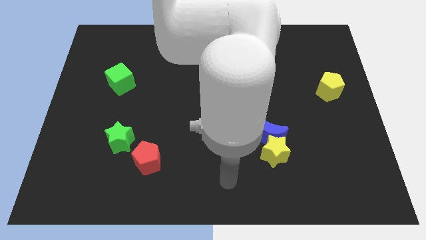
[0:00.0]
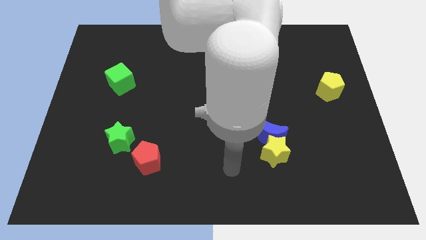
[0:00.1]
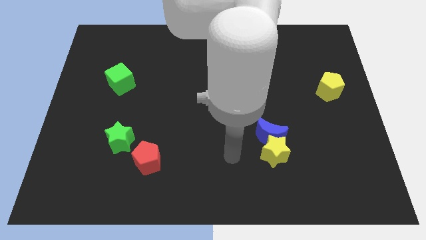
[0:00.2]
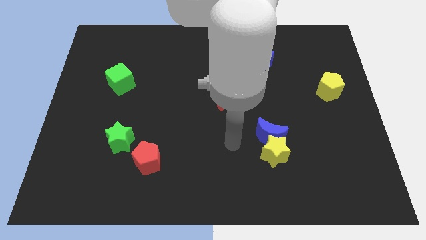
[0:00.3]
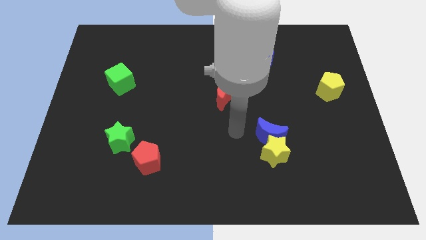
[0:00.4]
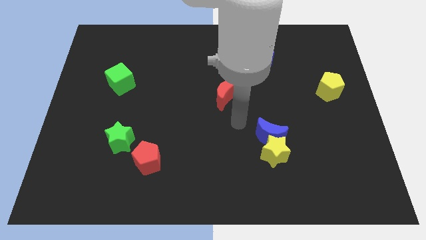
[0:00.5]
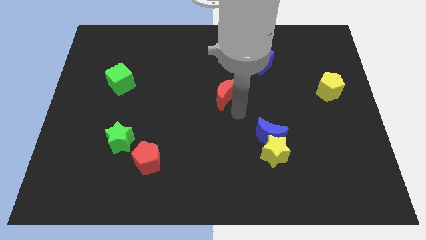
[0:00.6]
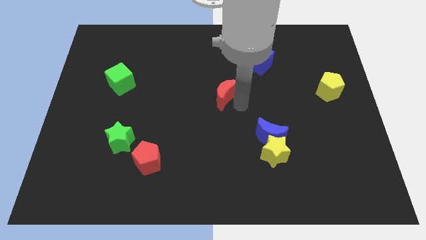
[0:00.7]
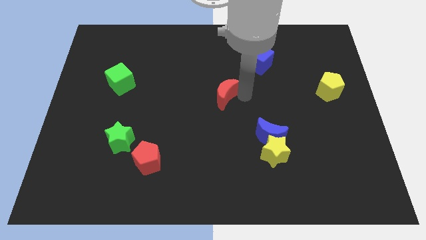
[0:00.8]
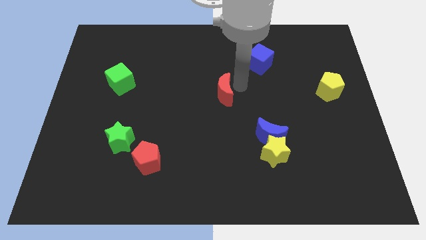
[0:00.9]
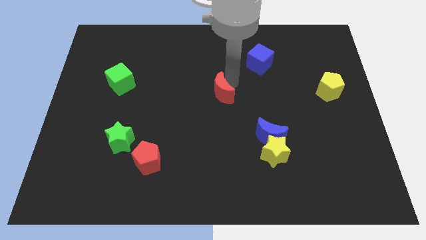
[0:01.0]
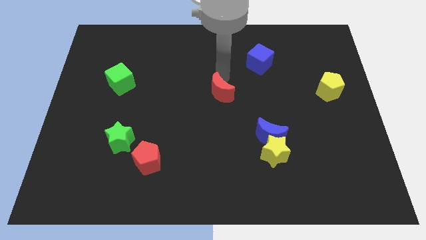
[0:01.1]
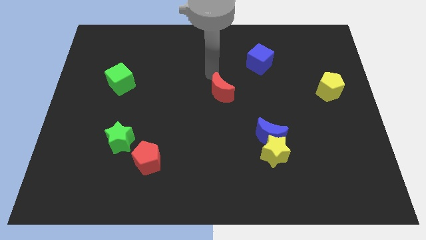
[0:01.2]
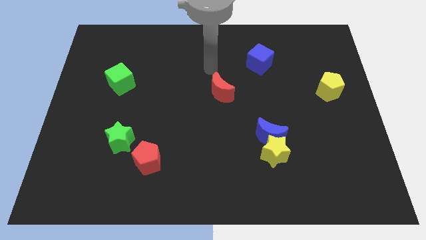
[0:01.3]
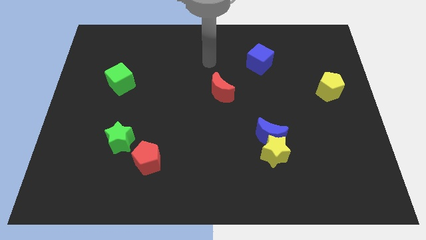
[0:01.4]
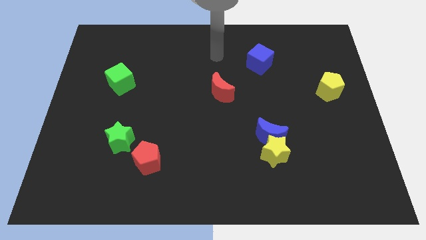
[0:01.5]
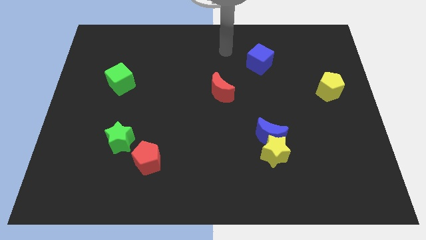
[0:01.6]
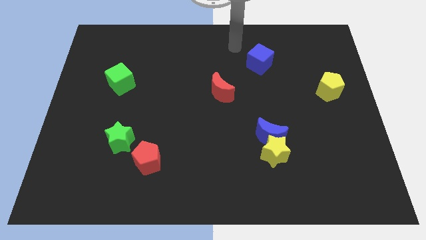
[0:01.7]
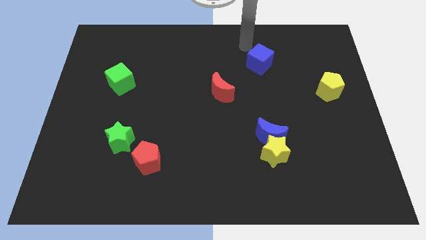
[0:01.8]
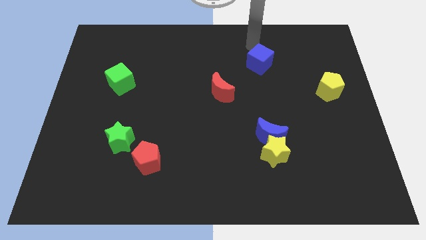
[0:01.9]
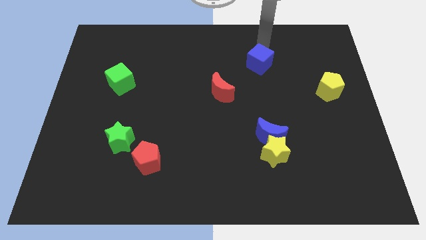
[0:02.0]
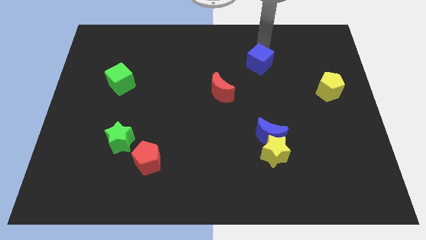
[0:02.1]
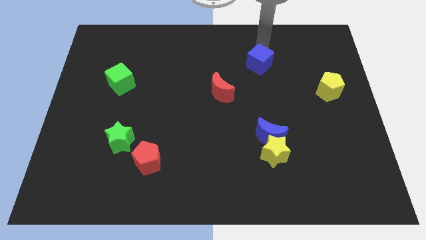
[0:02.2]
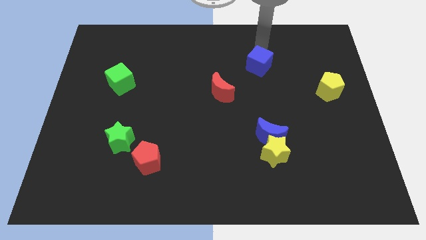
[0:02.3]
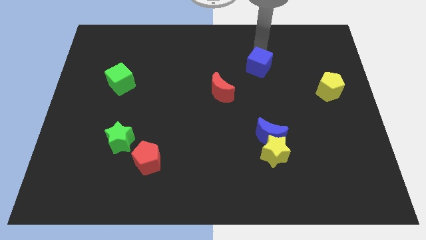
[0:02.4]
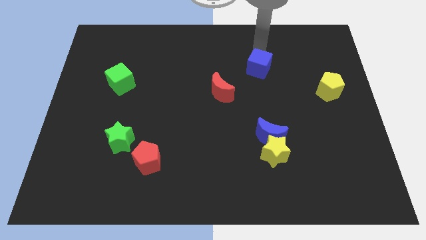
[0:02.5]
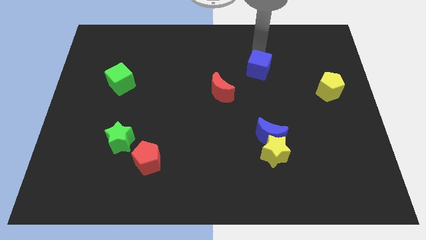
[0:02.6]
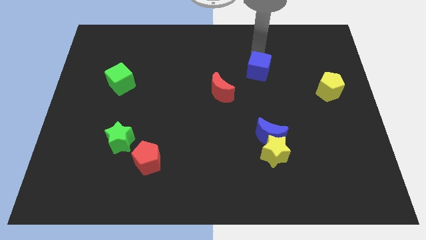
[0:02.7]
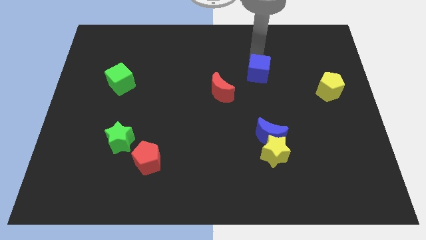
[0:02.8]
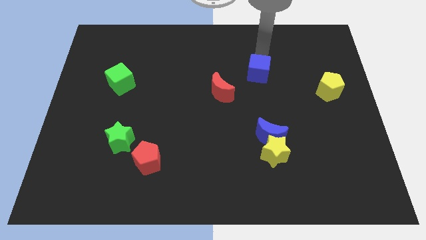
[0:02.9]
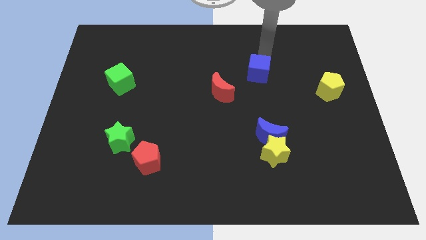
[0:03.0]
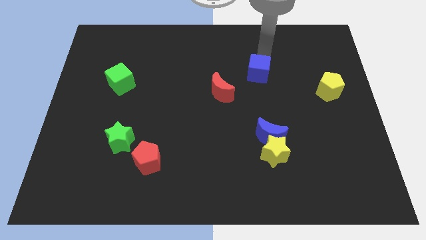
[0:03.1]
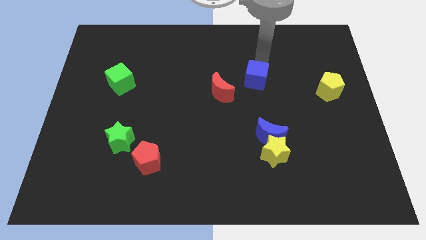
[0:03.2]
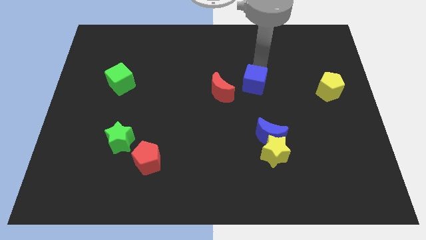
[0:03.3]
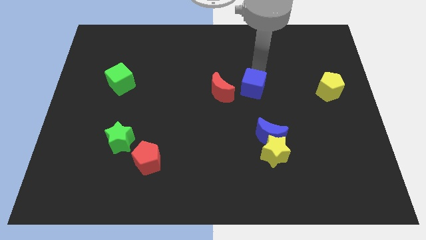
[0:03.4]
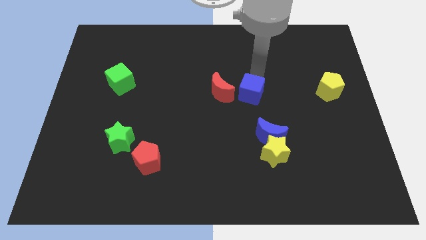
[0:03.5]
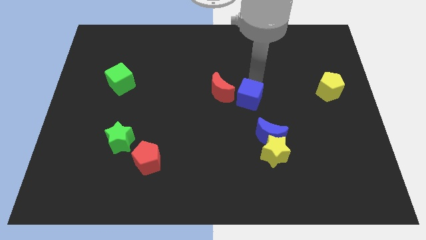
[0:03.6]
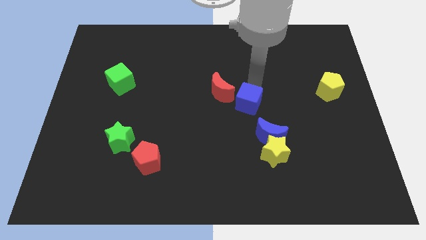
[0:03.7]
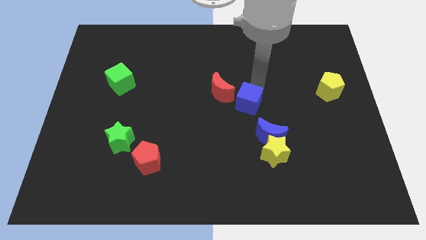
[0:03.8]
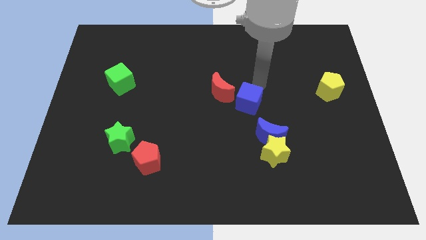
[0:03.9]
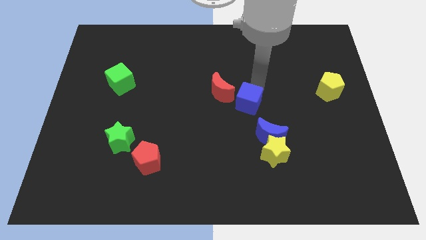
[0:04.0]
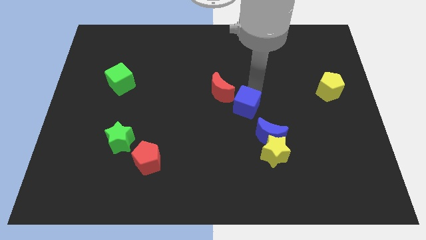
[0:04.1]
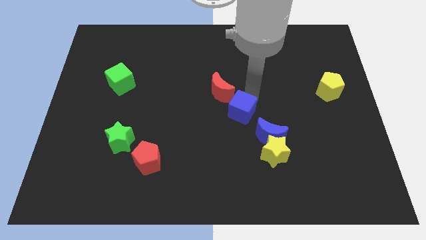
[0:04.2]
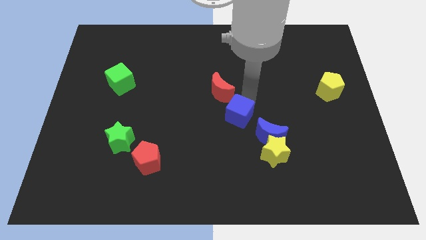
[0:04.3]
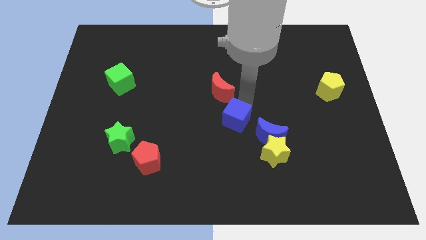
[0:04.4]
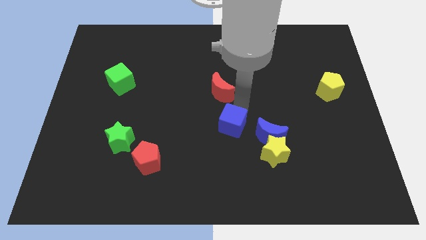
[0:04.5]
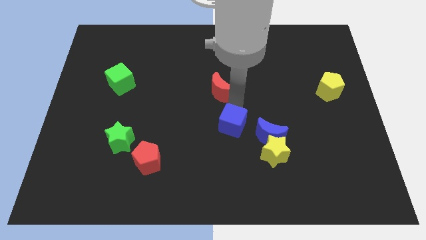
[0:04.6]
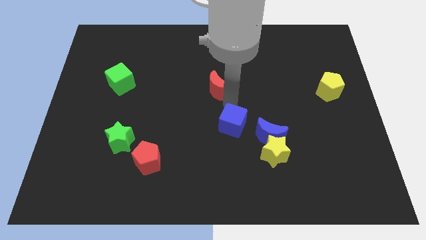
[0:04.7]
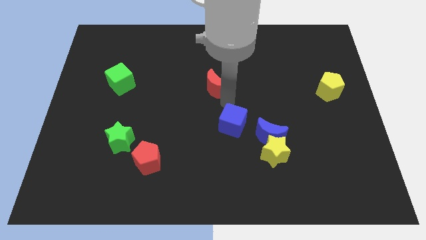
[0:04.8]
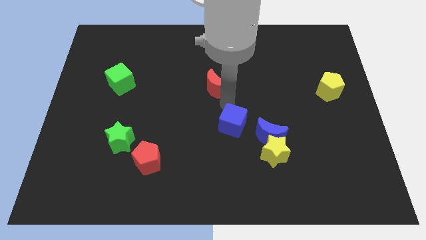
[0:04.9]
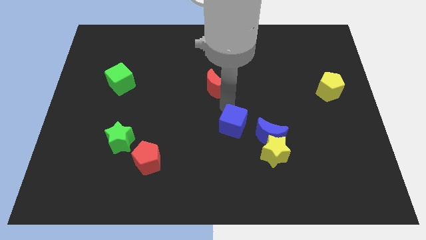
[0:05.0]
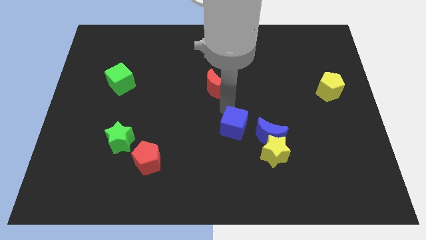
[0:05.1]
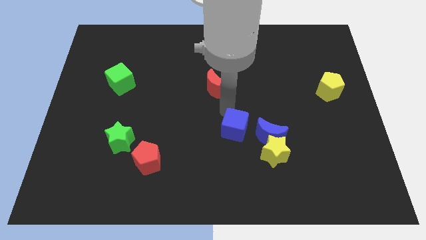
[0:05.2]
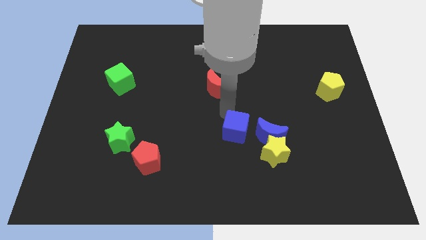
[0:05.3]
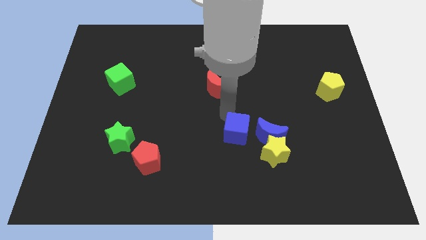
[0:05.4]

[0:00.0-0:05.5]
slide the blue cube downwards

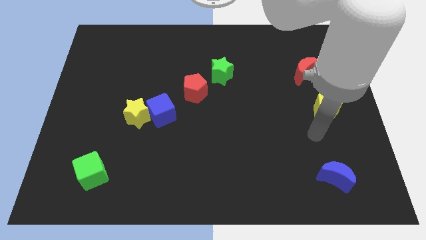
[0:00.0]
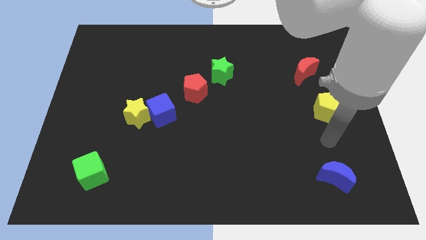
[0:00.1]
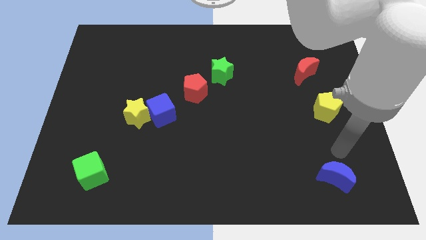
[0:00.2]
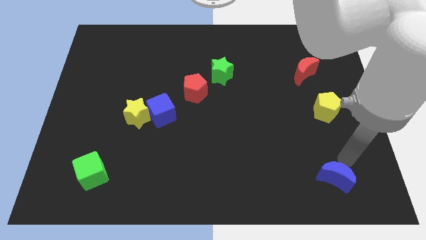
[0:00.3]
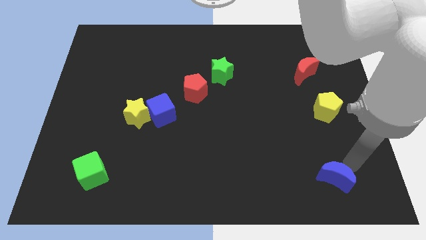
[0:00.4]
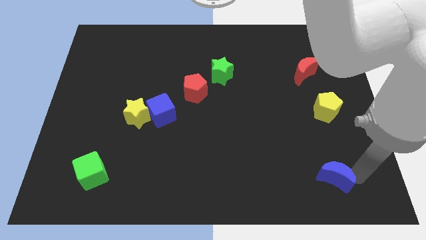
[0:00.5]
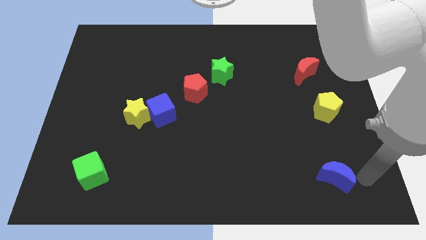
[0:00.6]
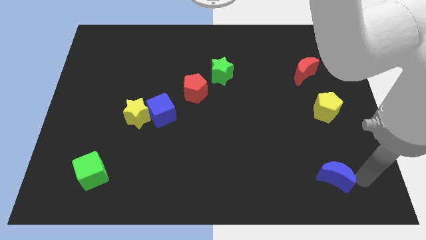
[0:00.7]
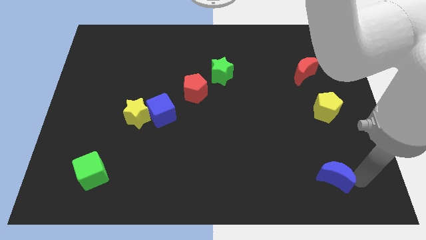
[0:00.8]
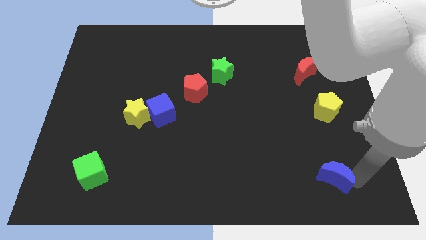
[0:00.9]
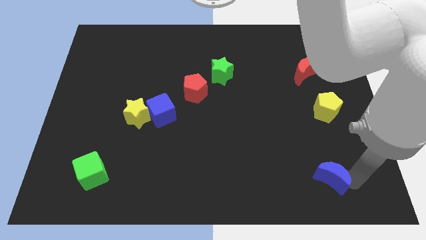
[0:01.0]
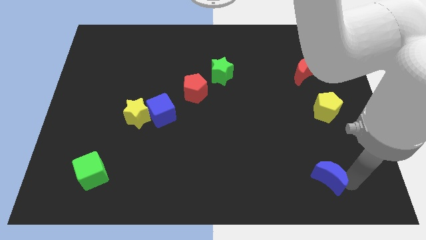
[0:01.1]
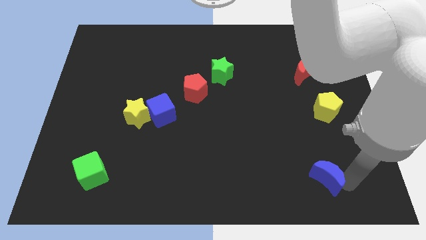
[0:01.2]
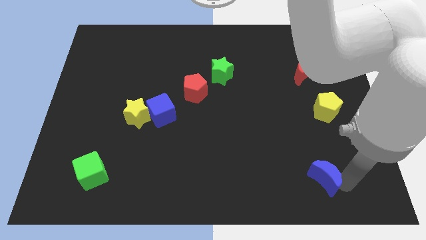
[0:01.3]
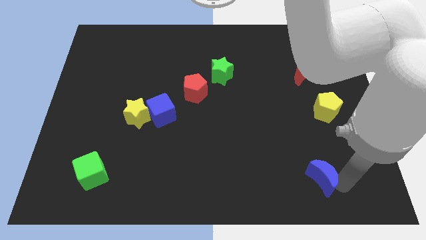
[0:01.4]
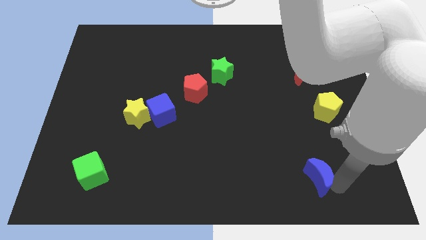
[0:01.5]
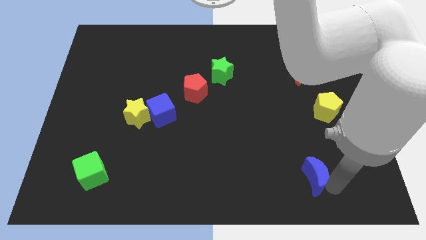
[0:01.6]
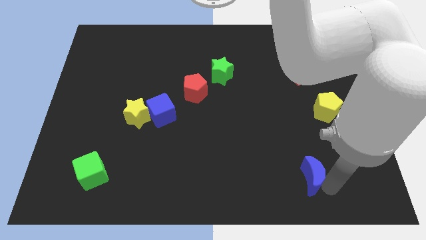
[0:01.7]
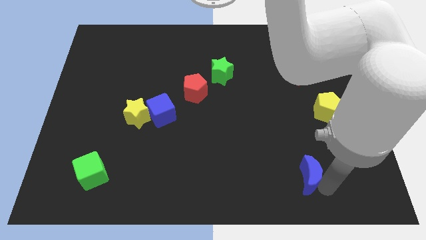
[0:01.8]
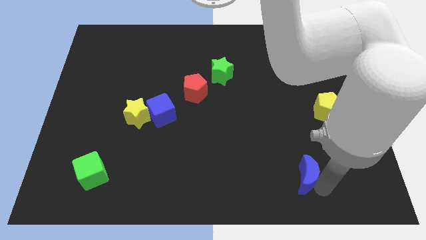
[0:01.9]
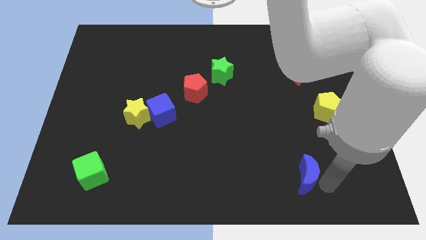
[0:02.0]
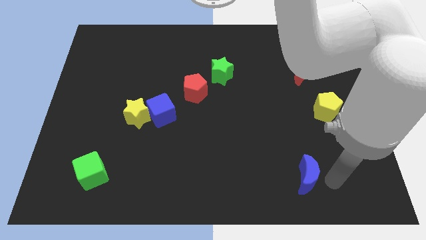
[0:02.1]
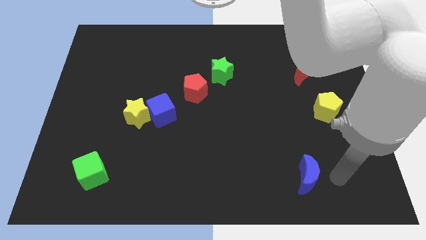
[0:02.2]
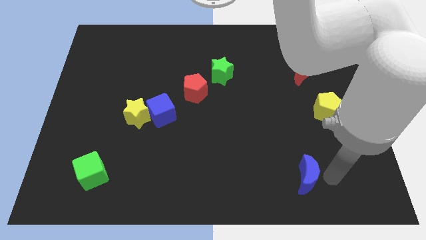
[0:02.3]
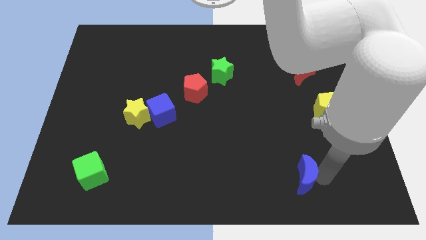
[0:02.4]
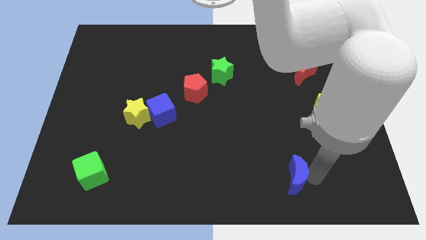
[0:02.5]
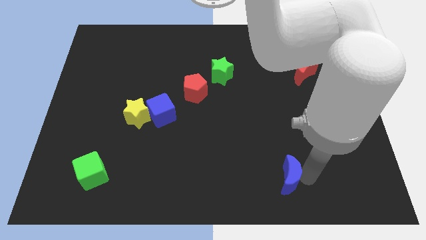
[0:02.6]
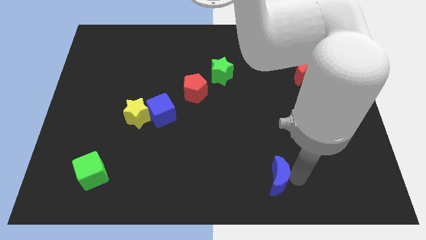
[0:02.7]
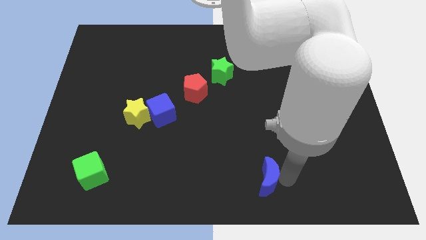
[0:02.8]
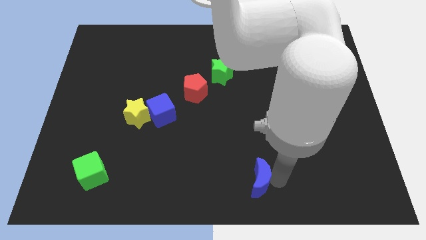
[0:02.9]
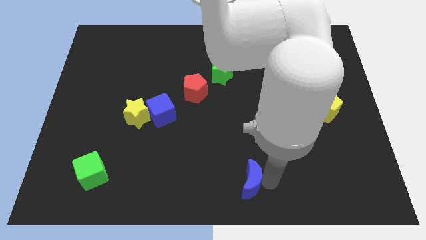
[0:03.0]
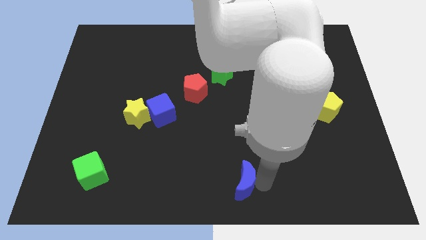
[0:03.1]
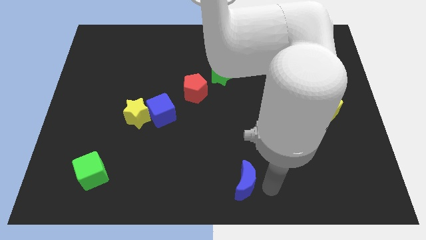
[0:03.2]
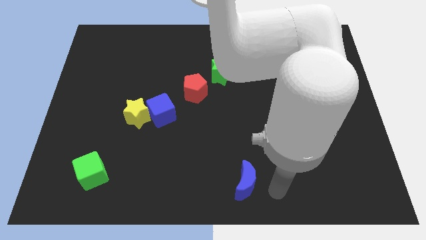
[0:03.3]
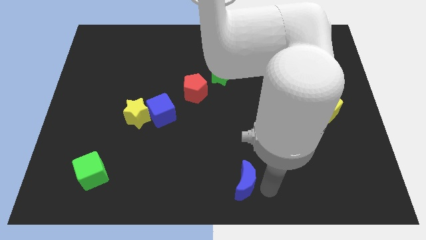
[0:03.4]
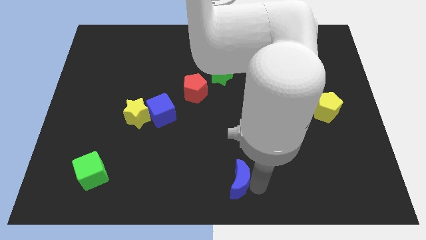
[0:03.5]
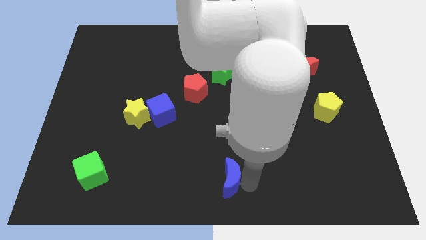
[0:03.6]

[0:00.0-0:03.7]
move the blue moon left
